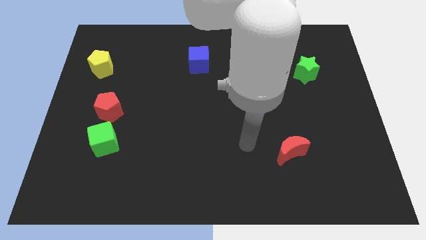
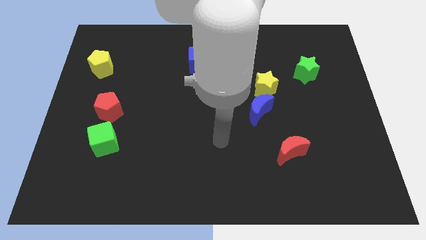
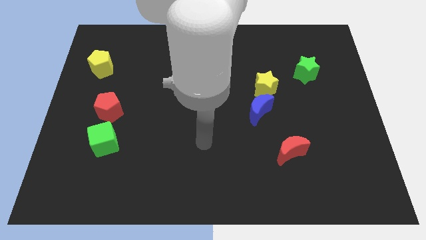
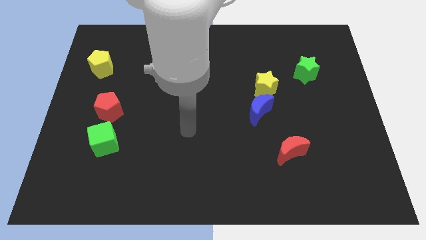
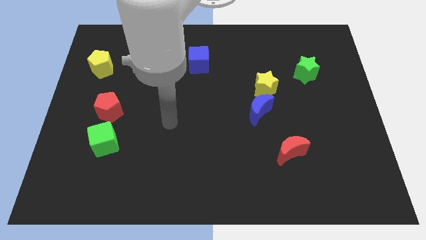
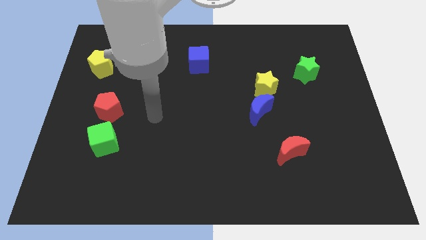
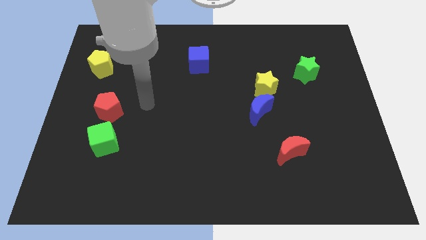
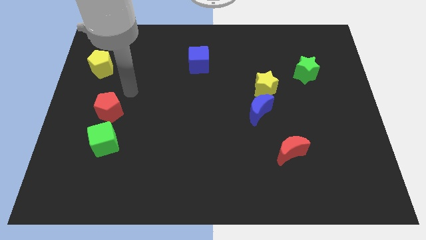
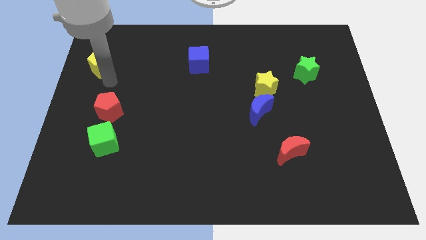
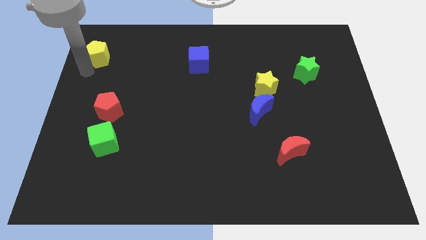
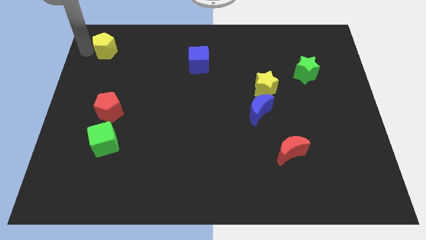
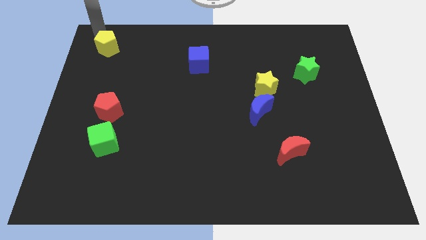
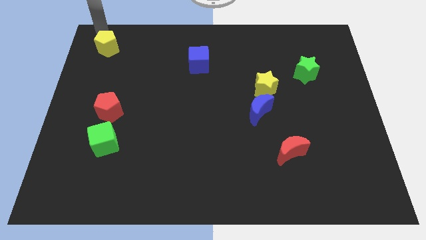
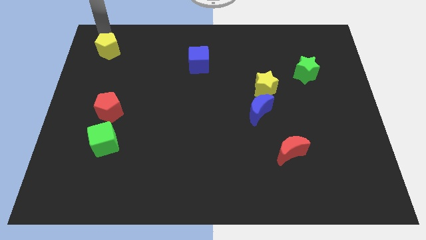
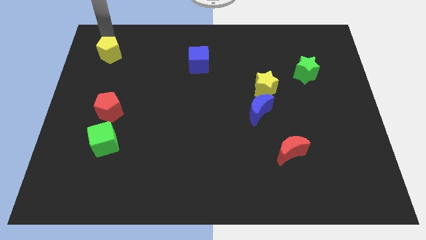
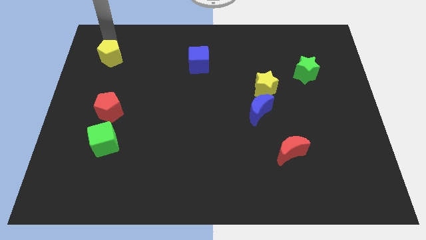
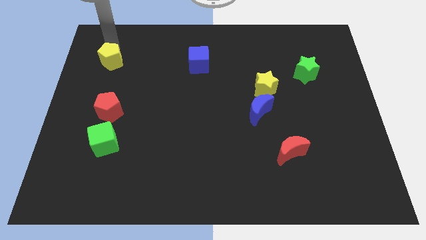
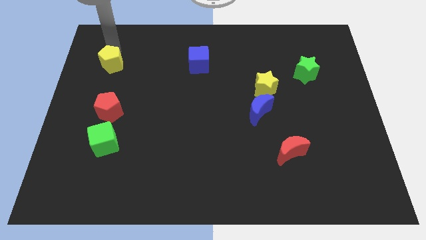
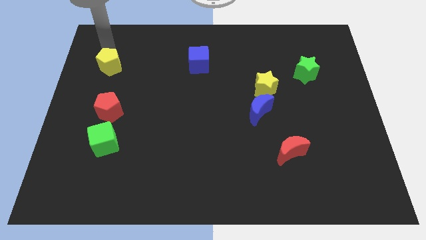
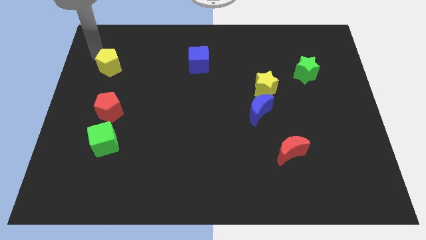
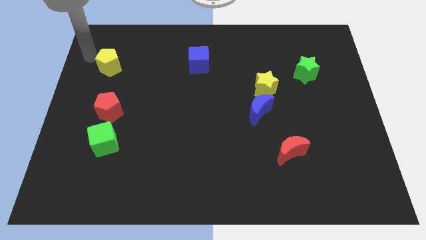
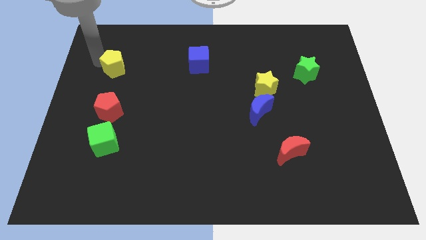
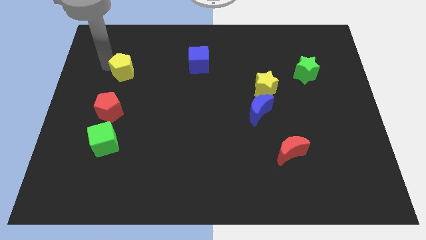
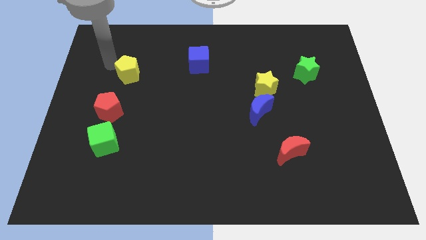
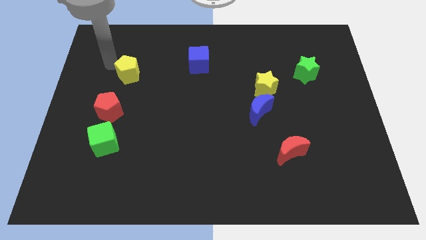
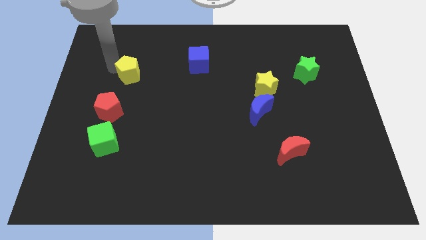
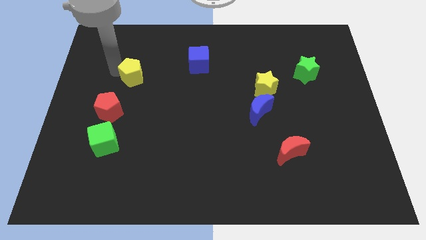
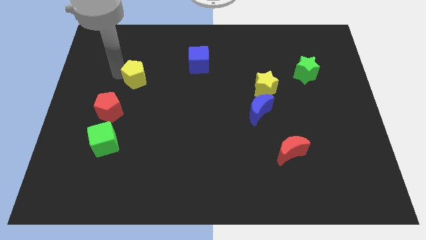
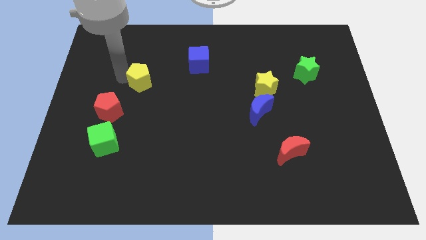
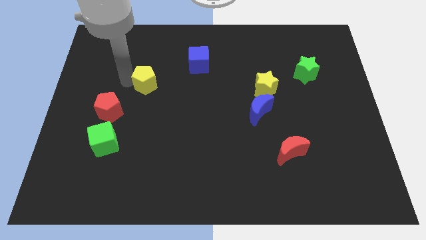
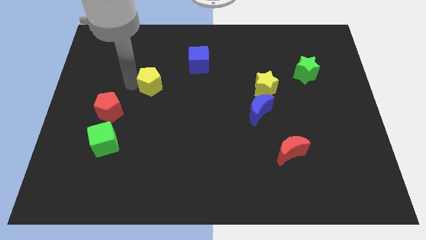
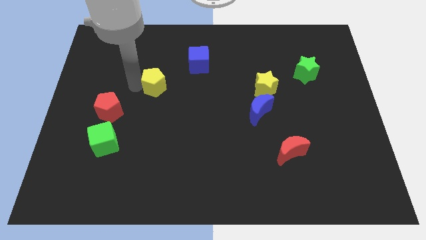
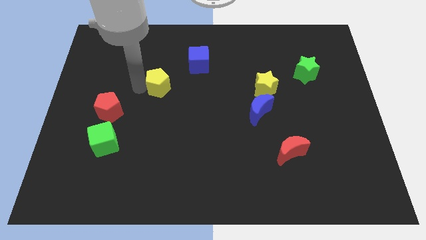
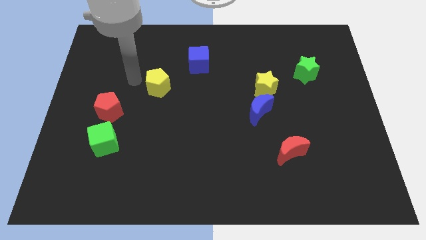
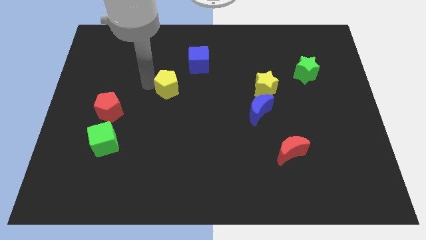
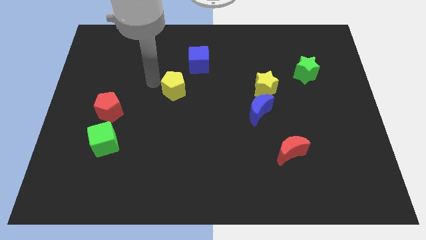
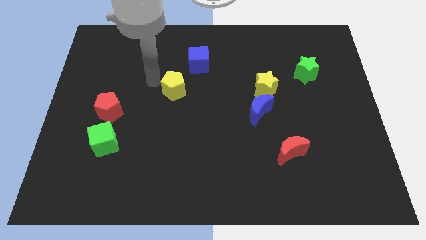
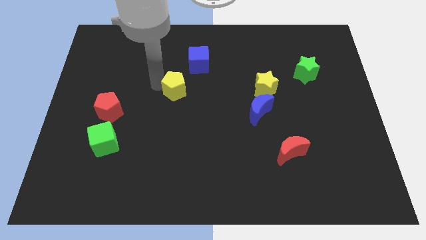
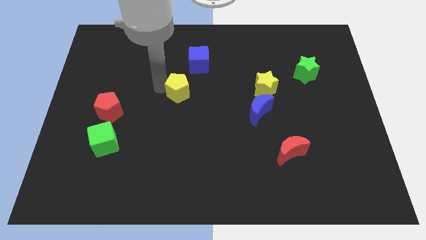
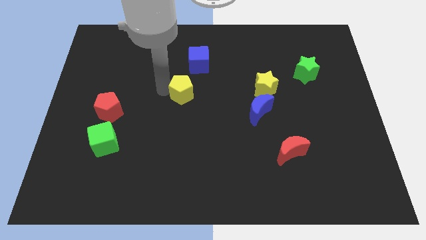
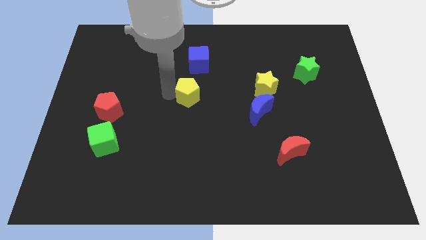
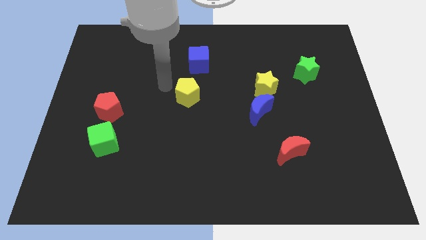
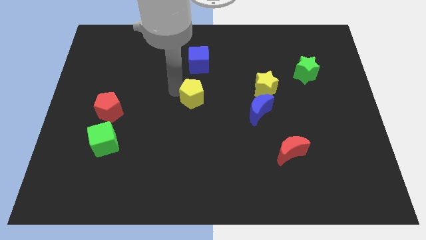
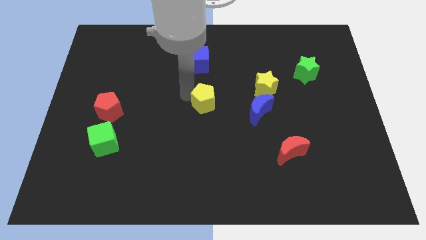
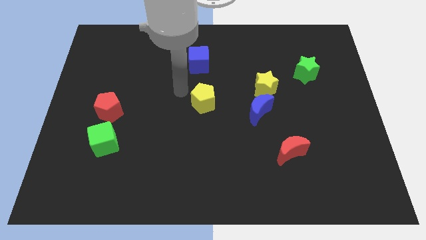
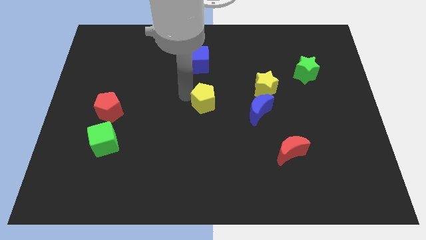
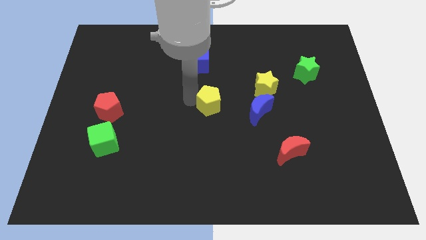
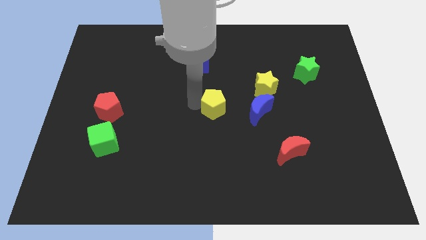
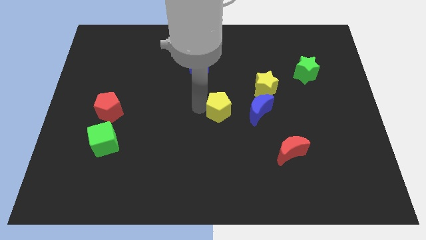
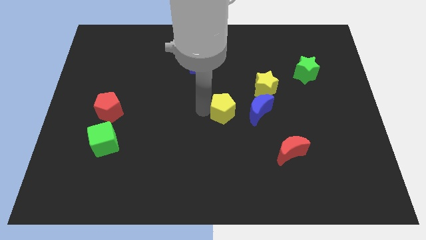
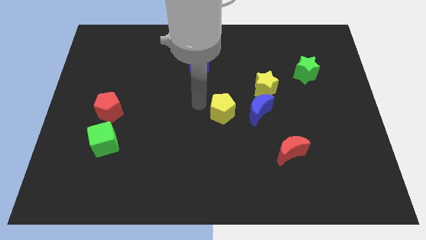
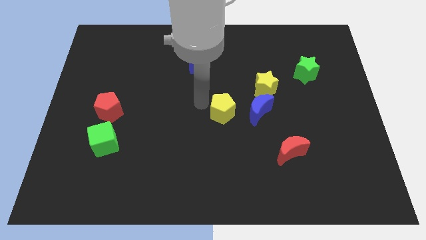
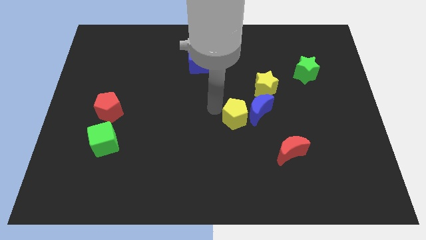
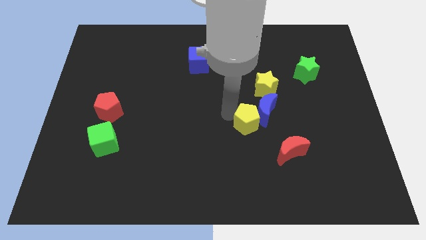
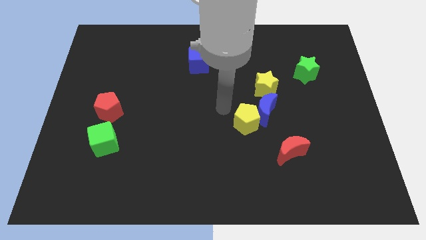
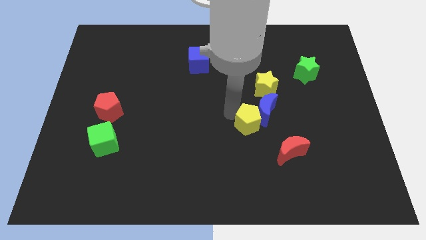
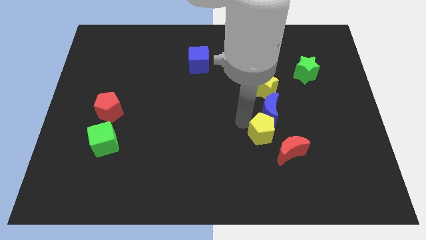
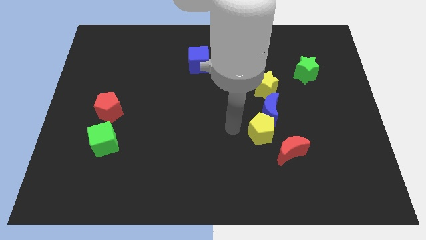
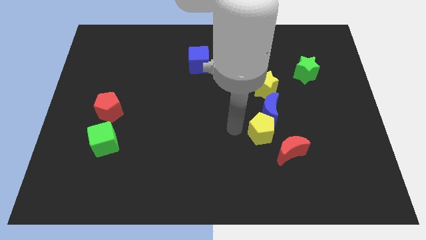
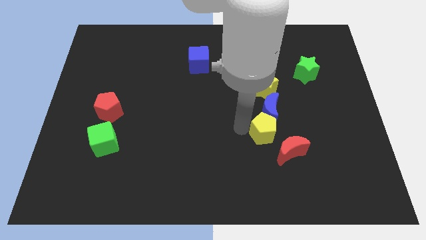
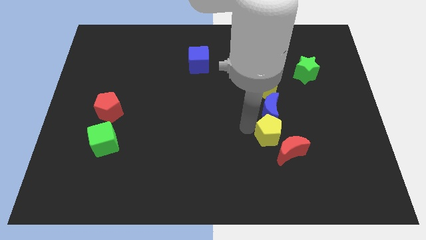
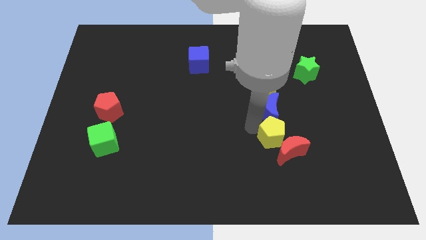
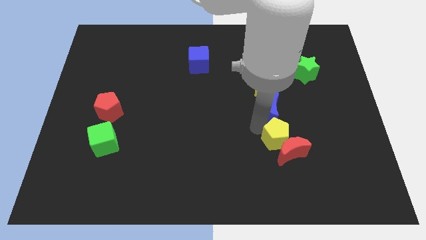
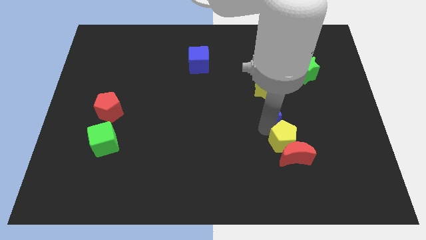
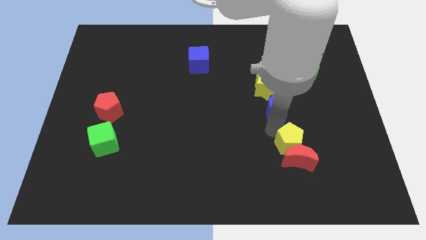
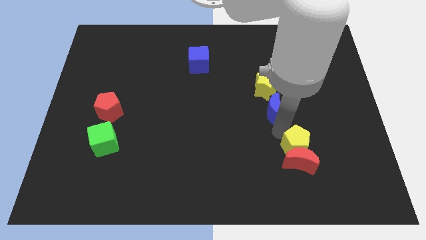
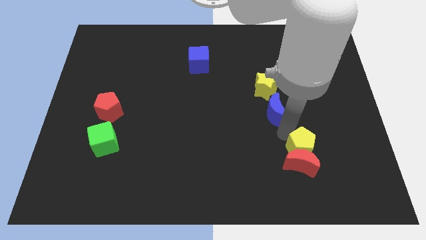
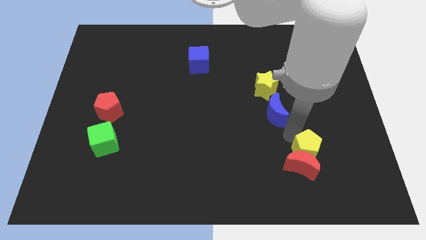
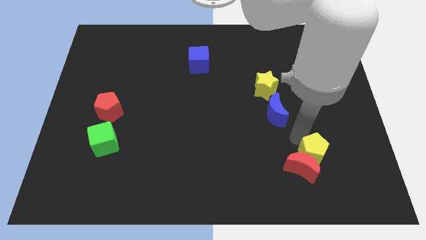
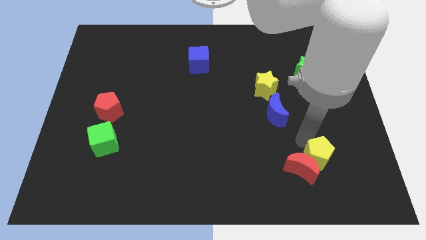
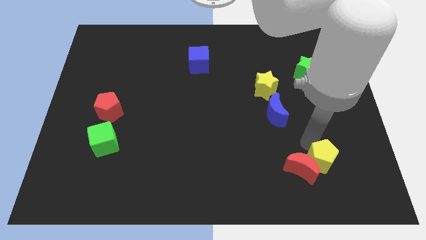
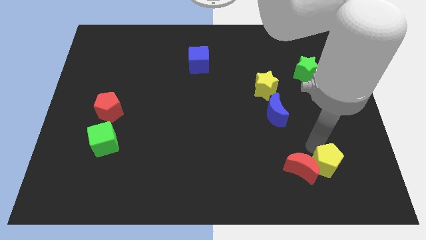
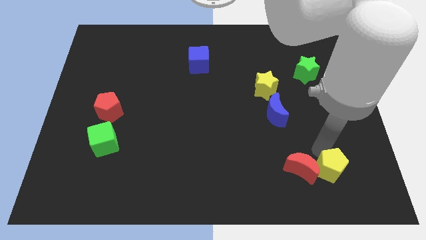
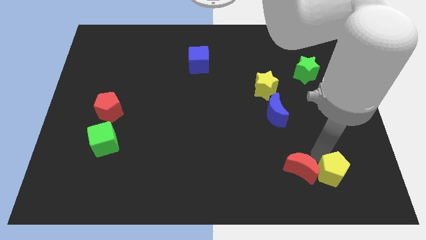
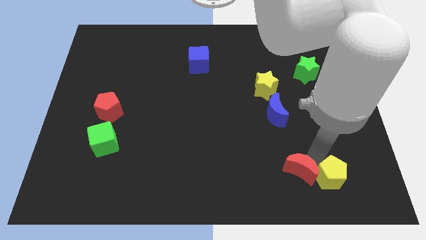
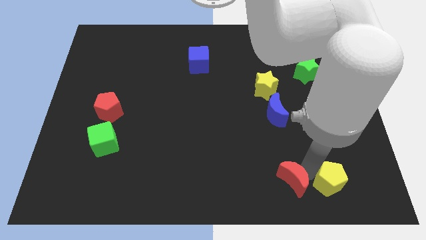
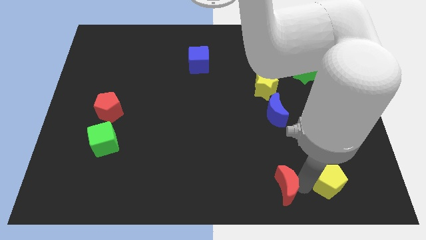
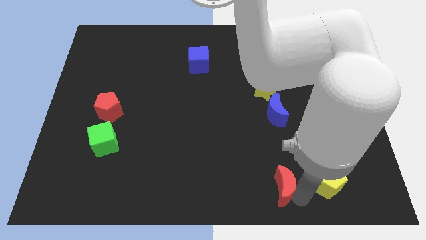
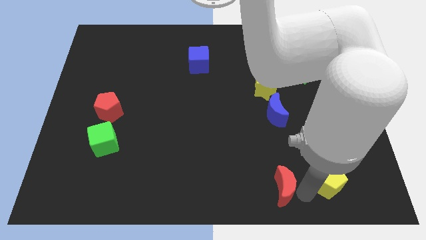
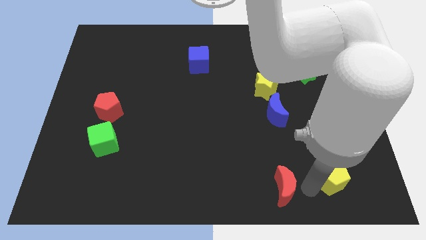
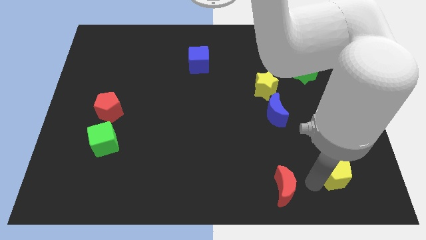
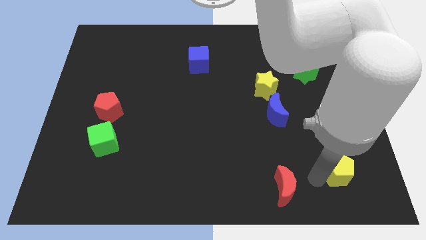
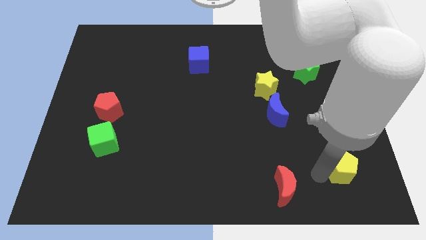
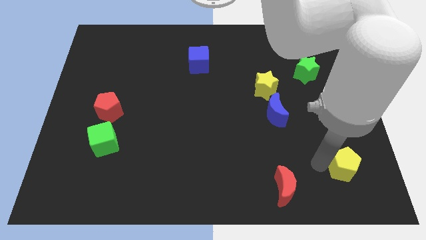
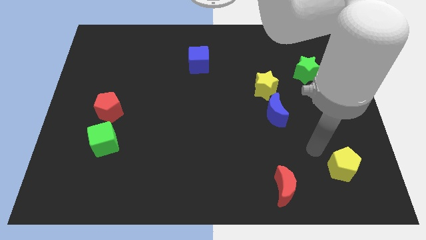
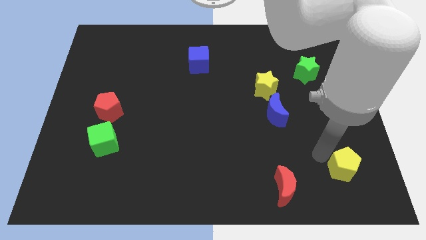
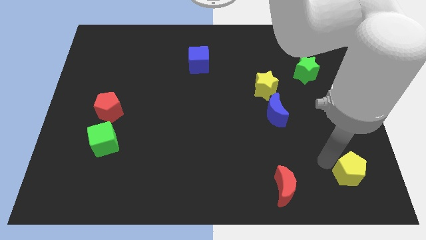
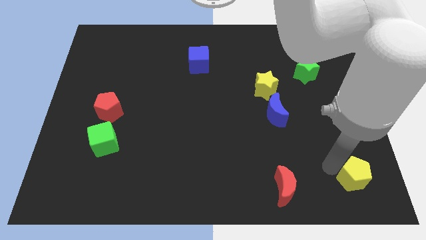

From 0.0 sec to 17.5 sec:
slide the yellow pentagon to the bottom right corner
